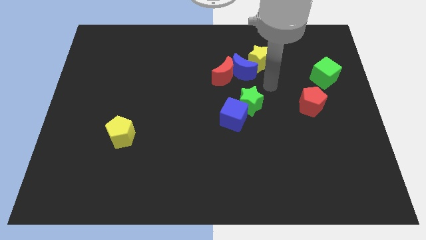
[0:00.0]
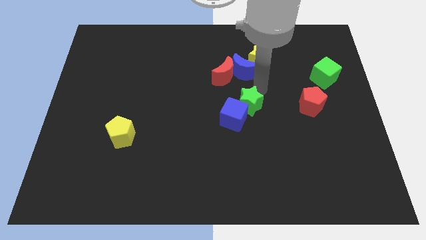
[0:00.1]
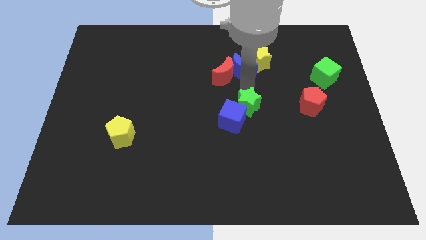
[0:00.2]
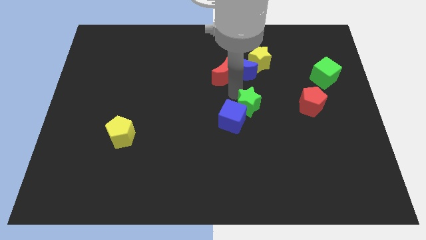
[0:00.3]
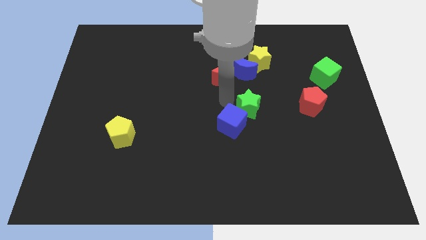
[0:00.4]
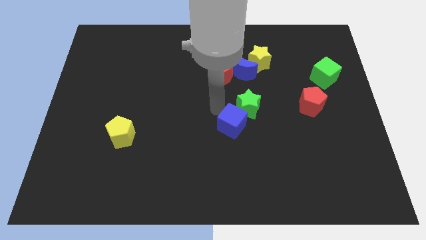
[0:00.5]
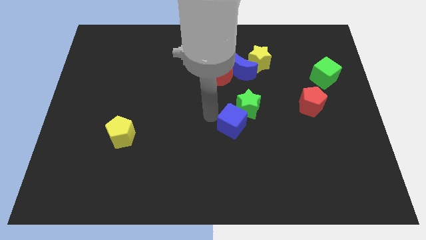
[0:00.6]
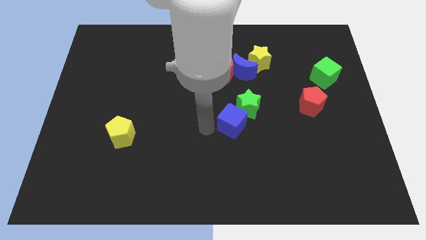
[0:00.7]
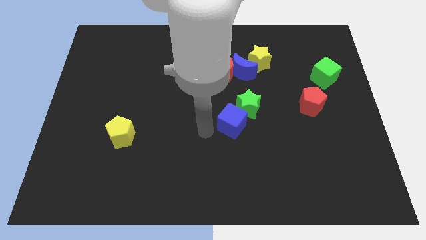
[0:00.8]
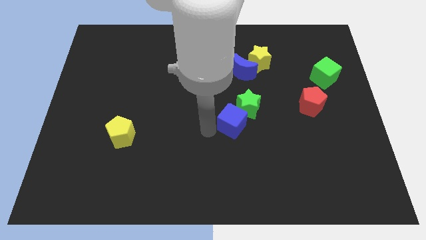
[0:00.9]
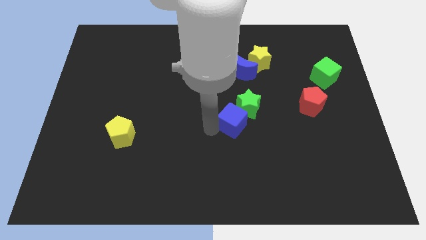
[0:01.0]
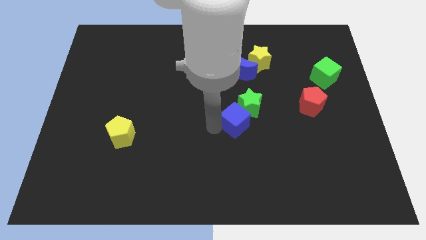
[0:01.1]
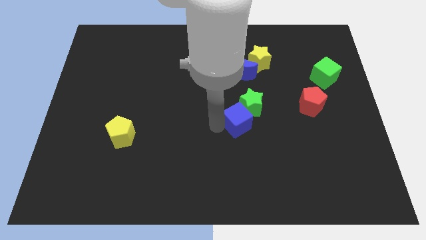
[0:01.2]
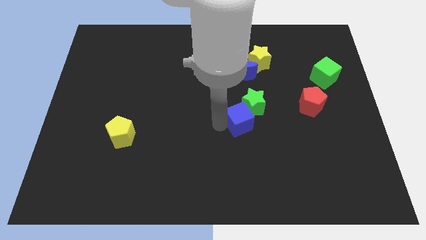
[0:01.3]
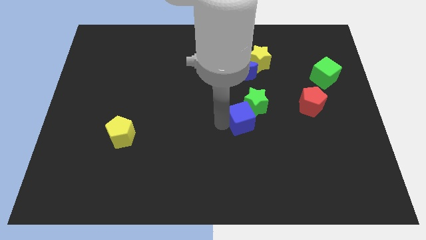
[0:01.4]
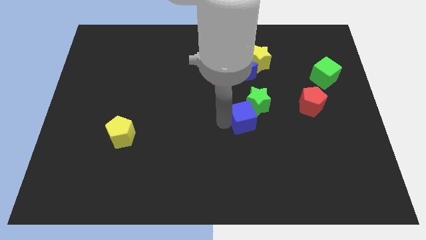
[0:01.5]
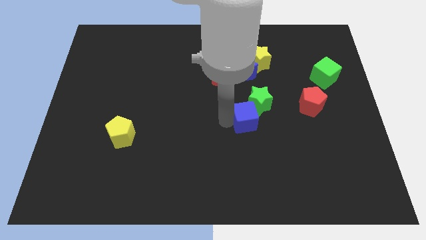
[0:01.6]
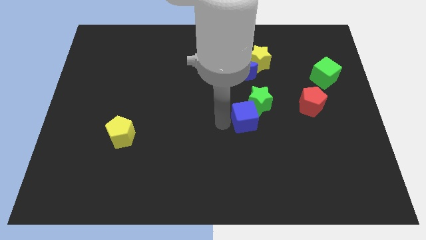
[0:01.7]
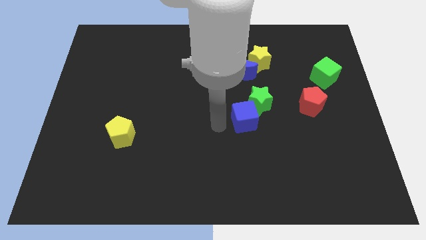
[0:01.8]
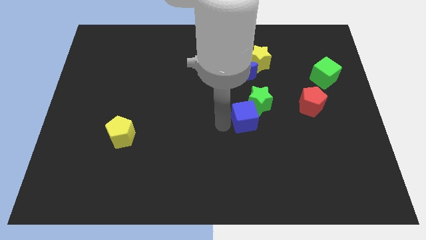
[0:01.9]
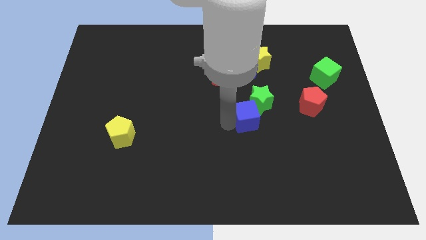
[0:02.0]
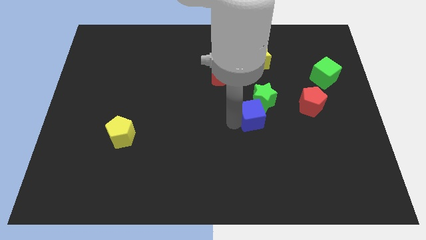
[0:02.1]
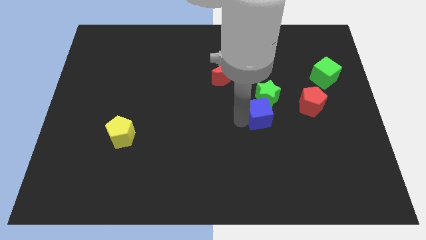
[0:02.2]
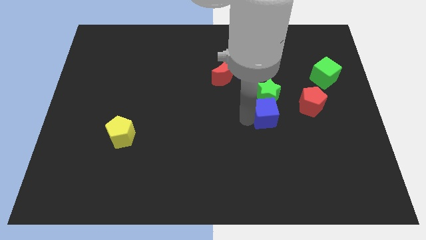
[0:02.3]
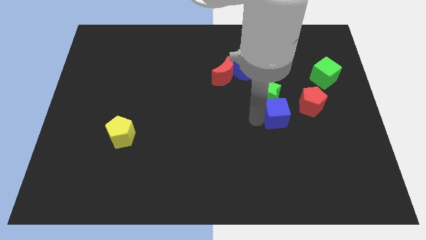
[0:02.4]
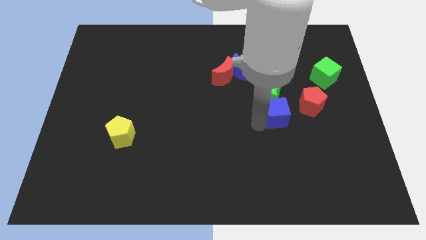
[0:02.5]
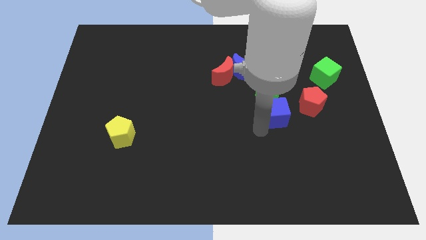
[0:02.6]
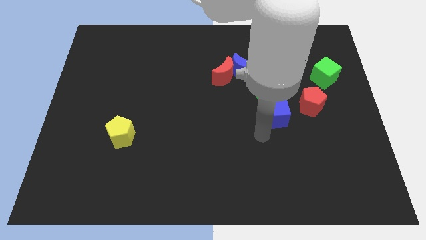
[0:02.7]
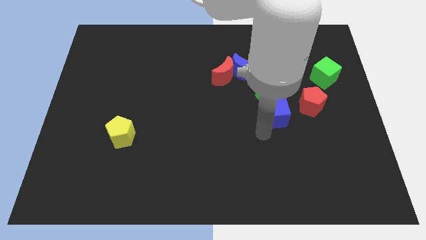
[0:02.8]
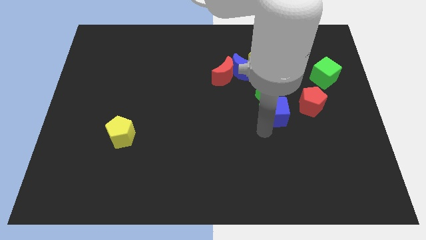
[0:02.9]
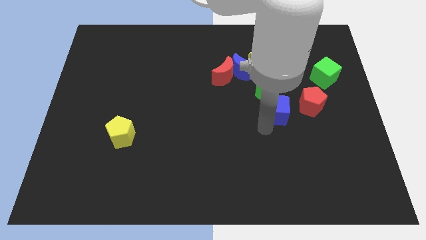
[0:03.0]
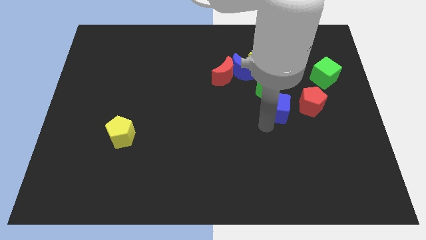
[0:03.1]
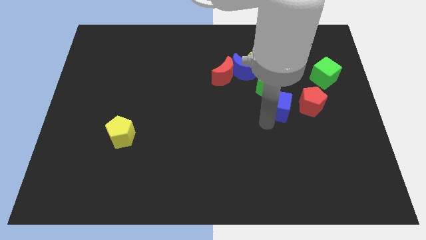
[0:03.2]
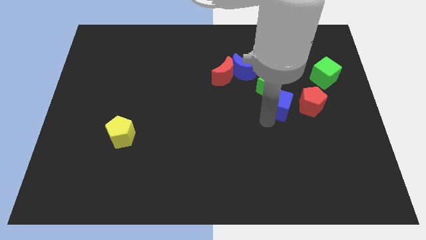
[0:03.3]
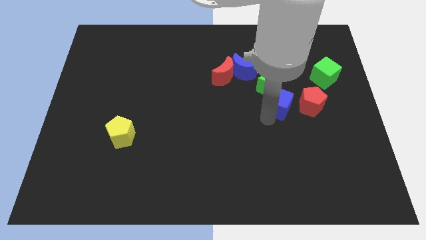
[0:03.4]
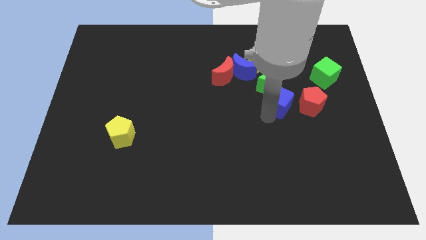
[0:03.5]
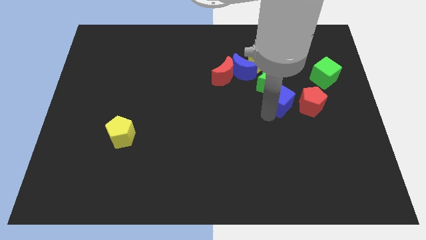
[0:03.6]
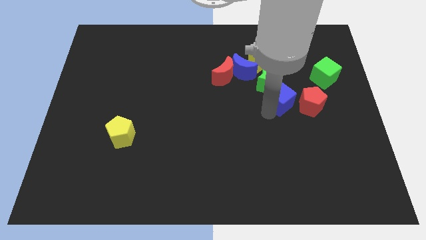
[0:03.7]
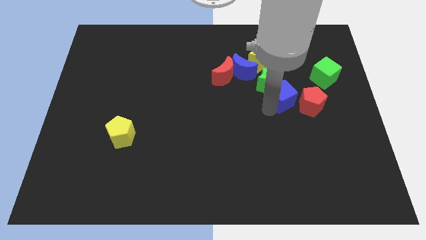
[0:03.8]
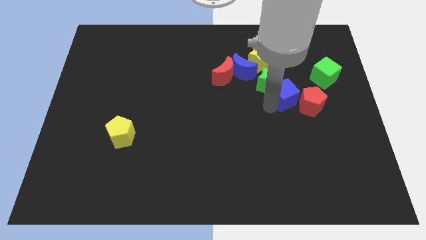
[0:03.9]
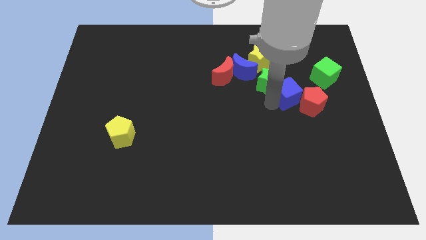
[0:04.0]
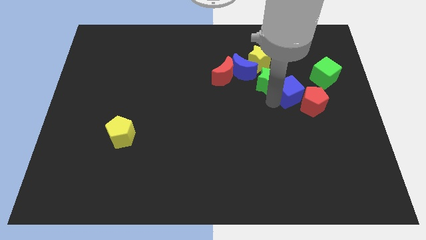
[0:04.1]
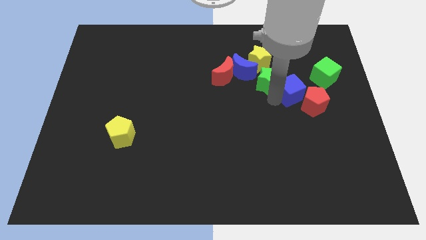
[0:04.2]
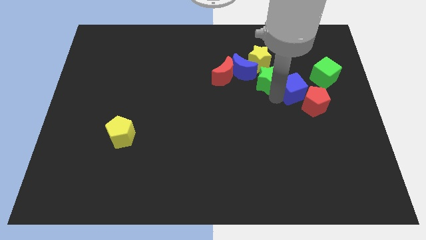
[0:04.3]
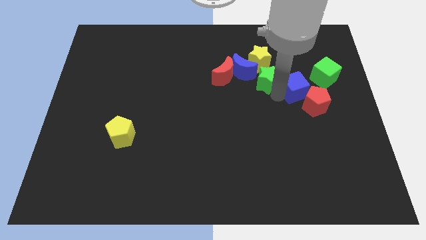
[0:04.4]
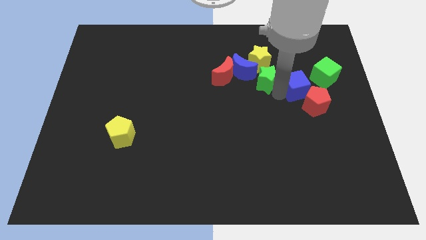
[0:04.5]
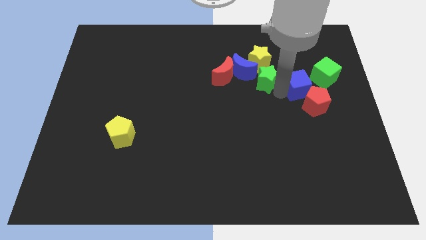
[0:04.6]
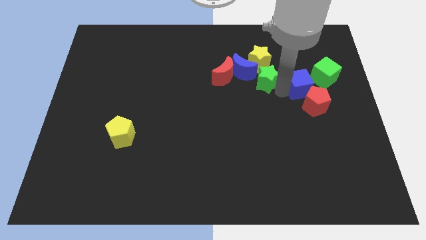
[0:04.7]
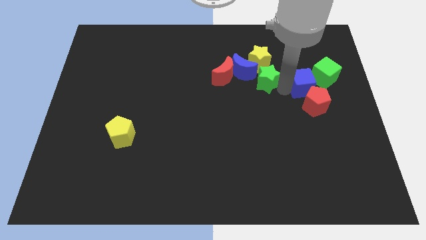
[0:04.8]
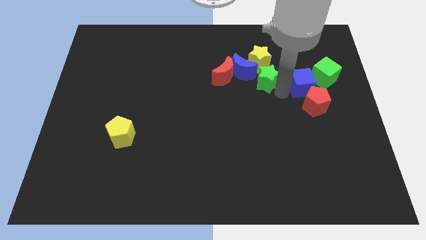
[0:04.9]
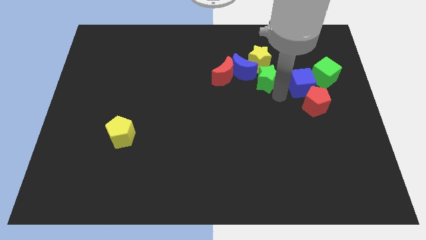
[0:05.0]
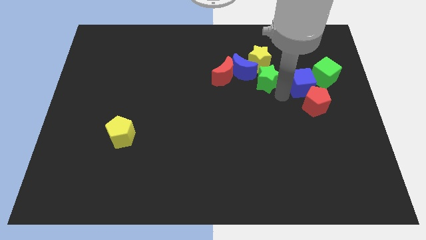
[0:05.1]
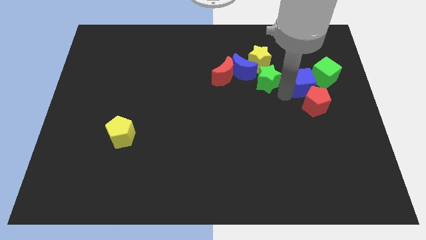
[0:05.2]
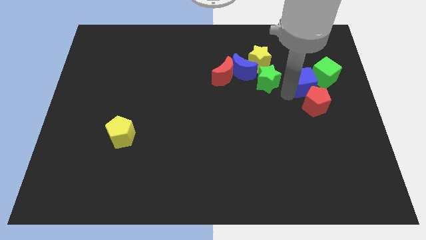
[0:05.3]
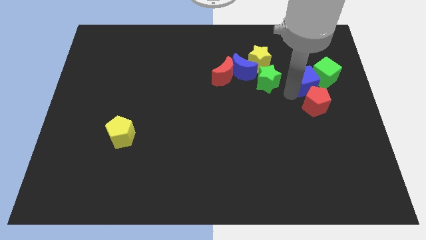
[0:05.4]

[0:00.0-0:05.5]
push the blue cube close to the green cube

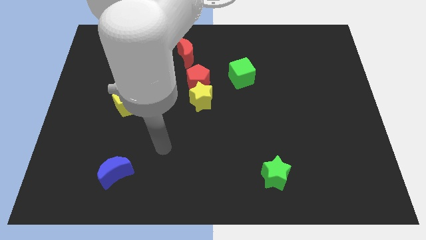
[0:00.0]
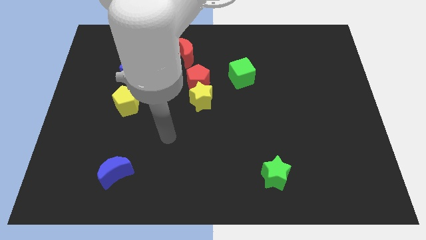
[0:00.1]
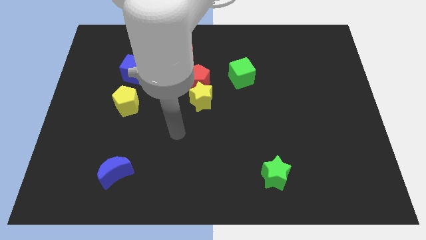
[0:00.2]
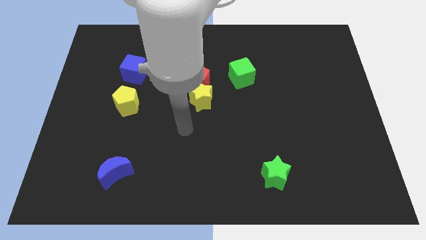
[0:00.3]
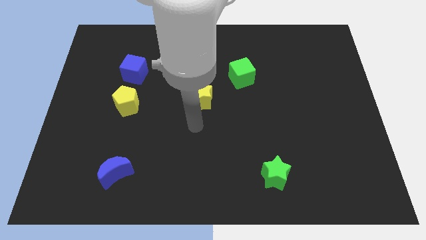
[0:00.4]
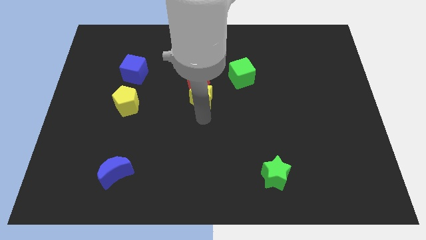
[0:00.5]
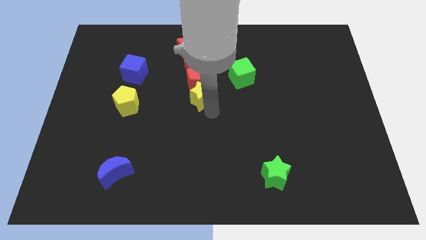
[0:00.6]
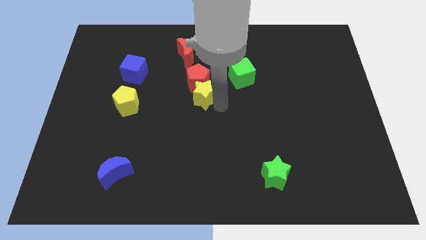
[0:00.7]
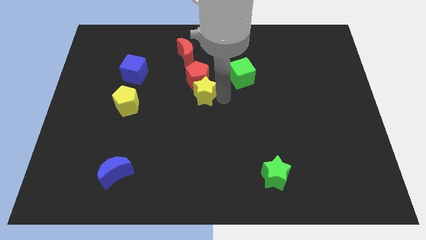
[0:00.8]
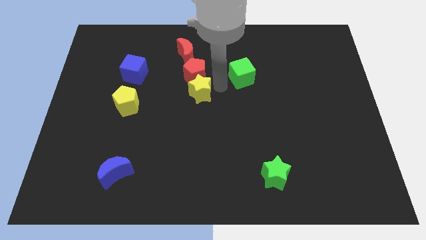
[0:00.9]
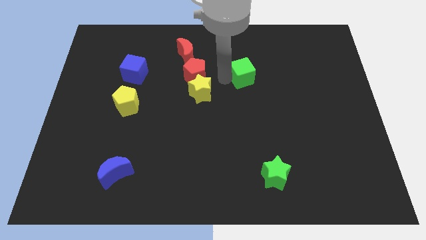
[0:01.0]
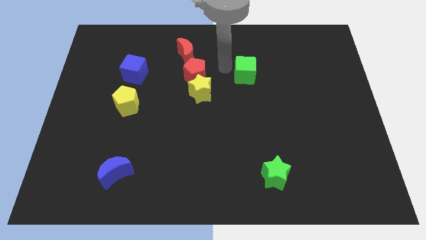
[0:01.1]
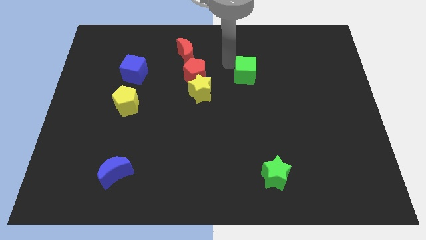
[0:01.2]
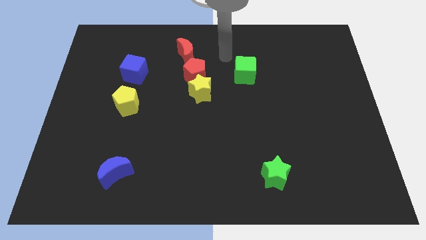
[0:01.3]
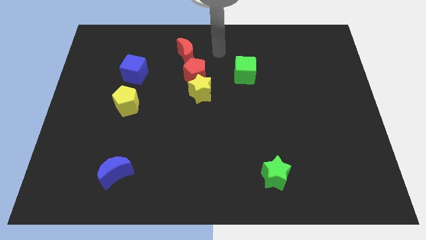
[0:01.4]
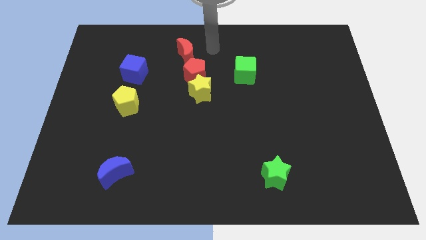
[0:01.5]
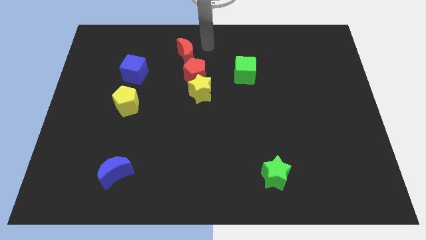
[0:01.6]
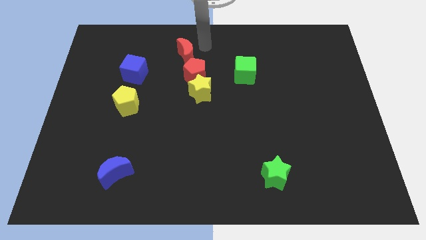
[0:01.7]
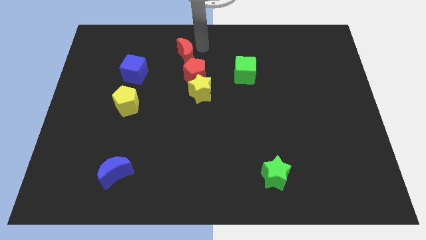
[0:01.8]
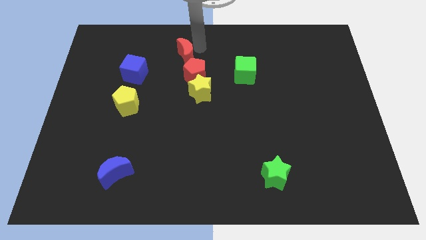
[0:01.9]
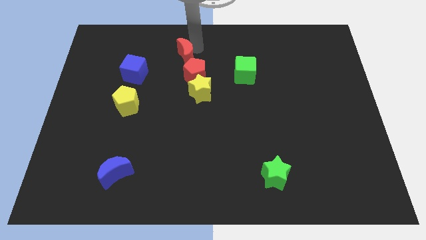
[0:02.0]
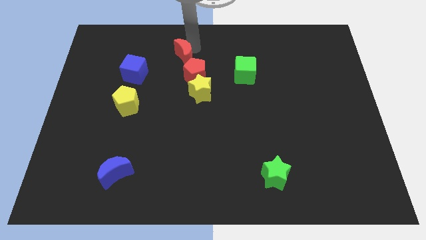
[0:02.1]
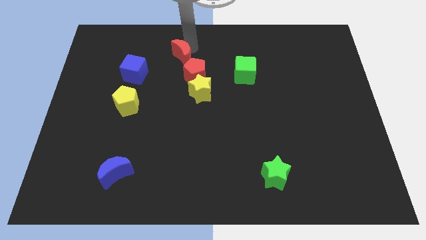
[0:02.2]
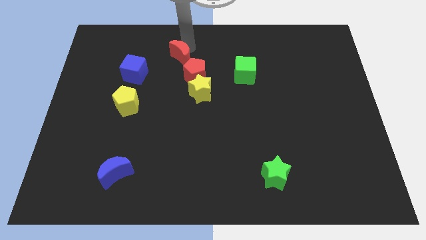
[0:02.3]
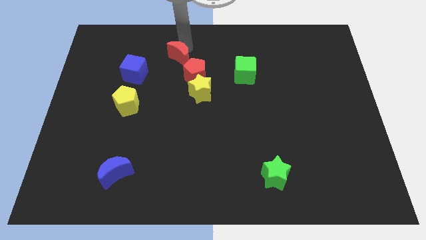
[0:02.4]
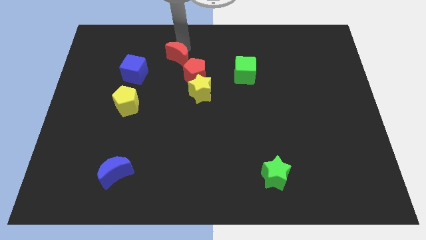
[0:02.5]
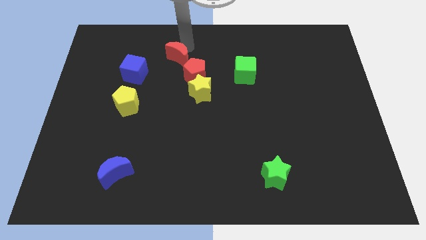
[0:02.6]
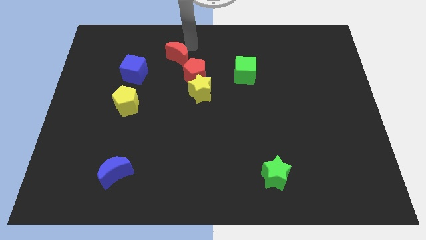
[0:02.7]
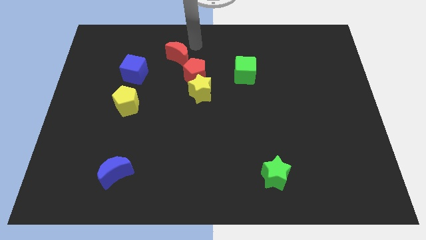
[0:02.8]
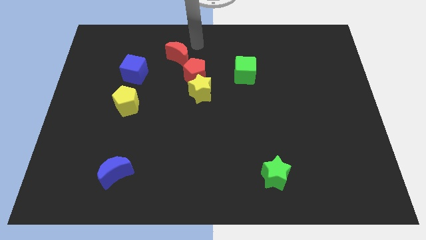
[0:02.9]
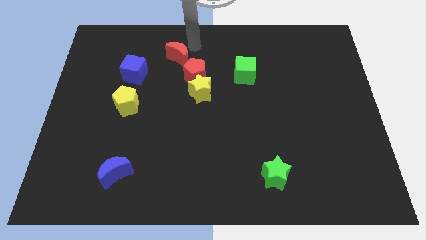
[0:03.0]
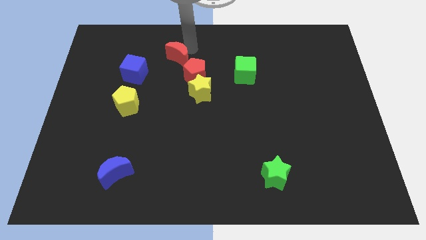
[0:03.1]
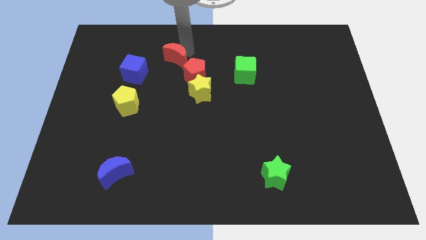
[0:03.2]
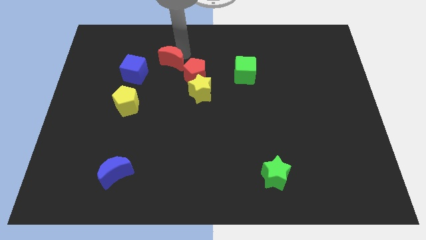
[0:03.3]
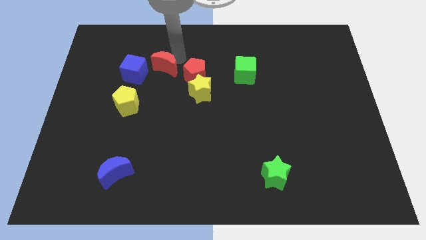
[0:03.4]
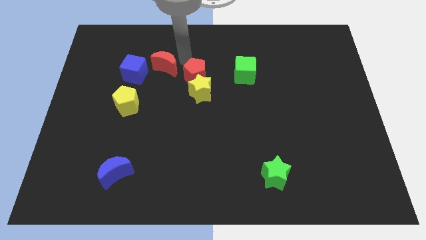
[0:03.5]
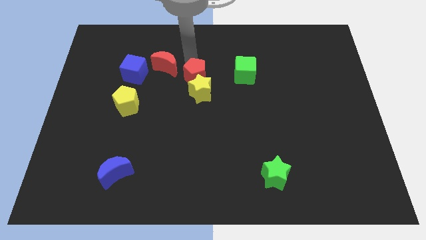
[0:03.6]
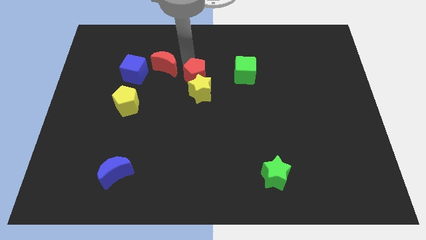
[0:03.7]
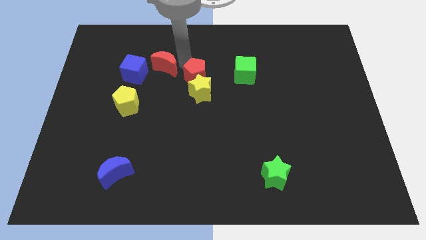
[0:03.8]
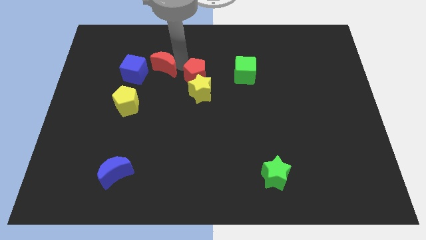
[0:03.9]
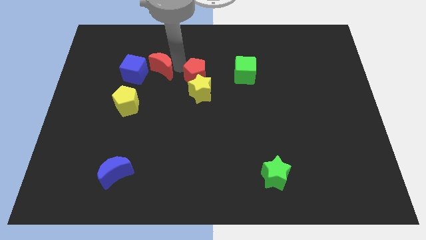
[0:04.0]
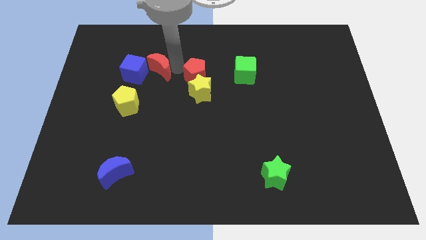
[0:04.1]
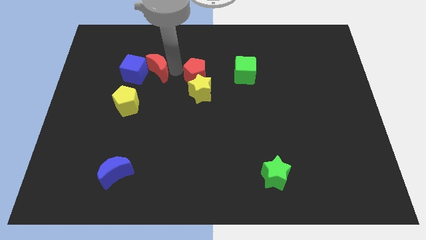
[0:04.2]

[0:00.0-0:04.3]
slide the red moon towards the blue cube
